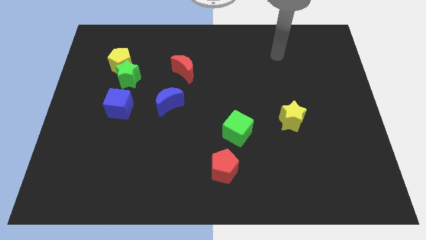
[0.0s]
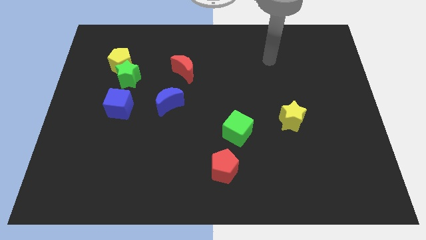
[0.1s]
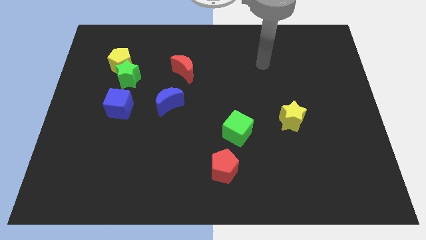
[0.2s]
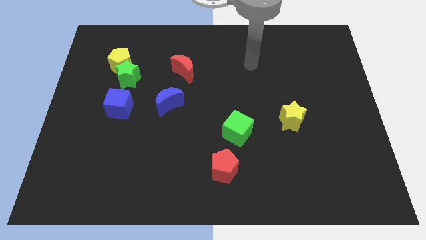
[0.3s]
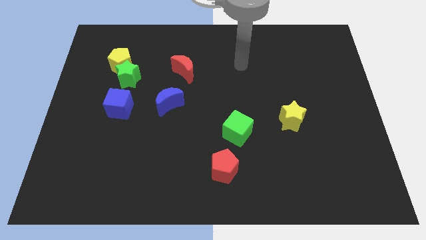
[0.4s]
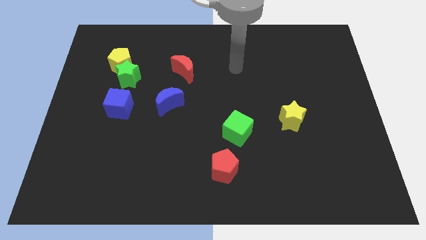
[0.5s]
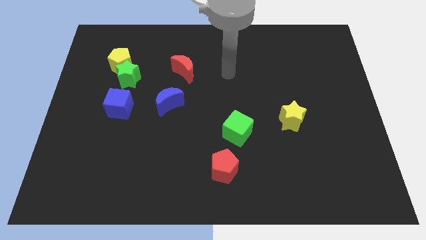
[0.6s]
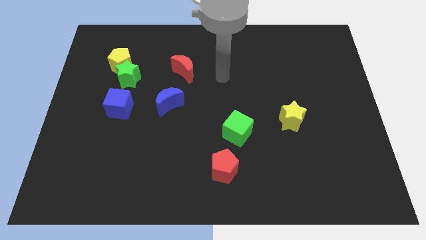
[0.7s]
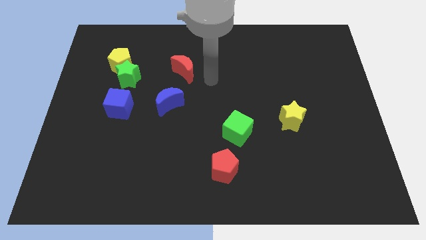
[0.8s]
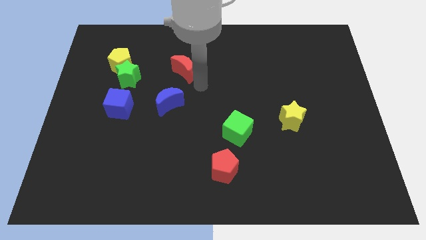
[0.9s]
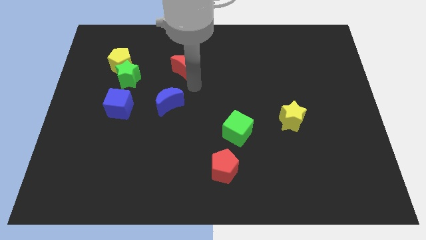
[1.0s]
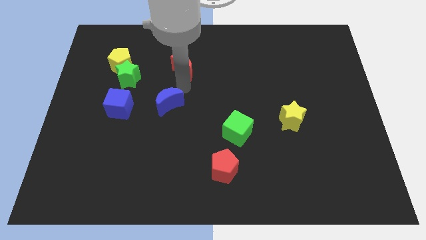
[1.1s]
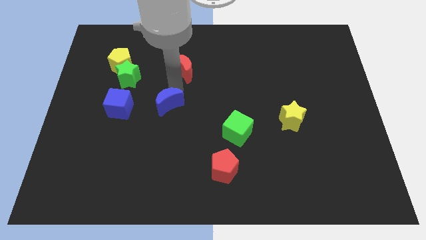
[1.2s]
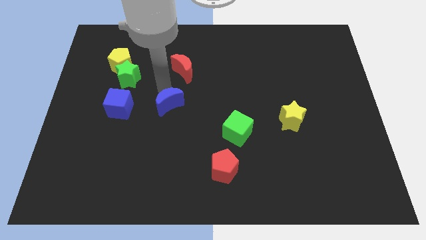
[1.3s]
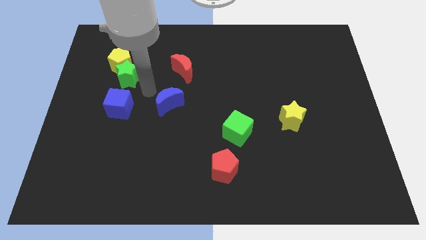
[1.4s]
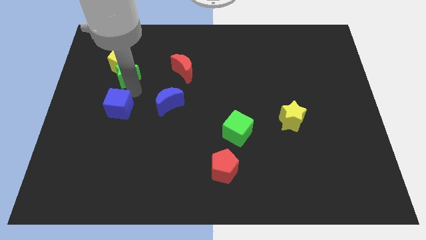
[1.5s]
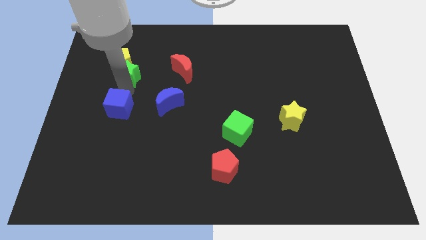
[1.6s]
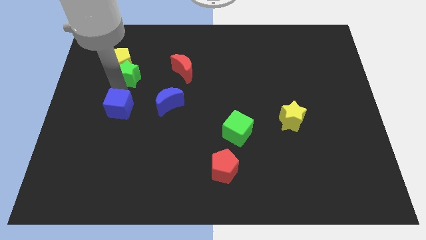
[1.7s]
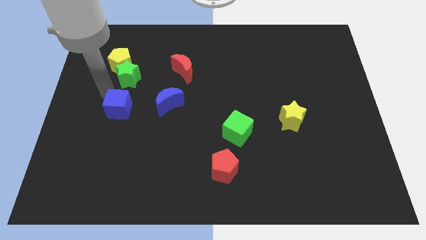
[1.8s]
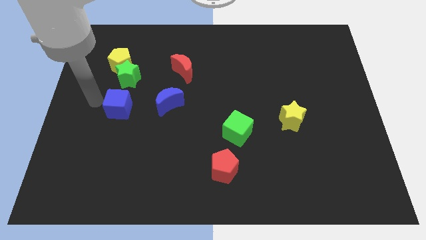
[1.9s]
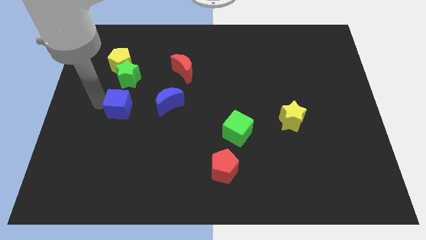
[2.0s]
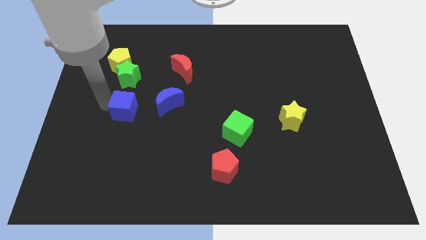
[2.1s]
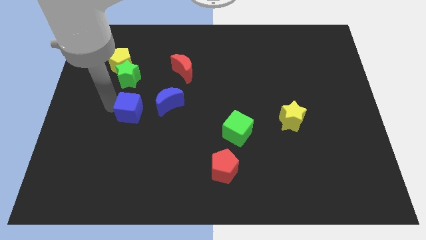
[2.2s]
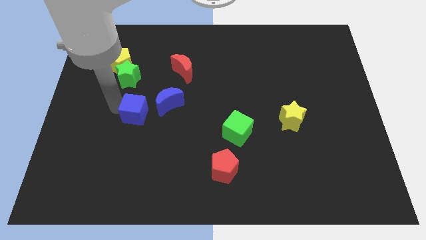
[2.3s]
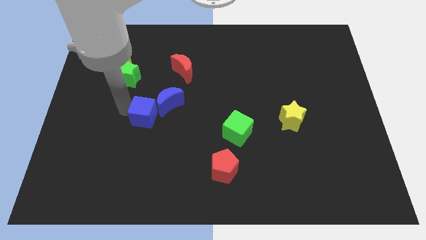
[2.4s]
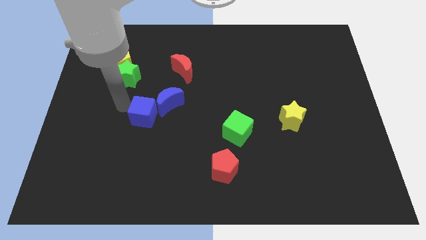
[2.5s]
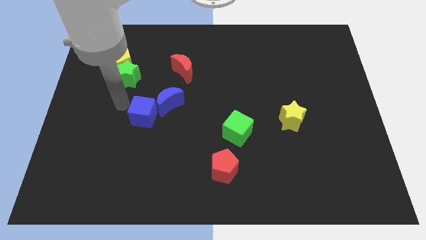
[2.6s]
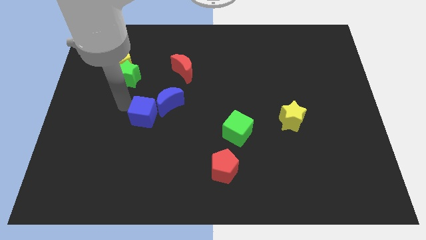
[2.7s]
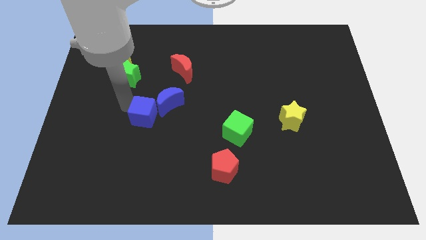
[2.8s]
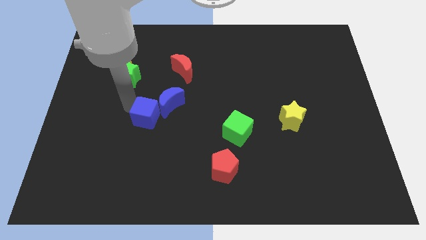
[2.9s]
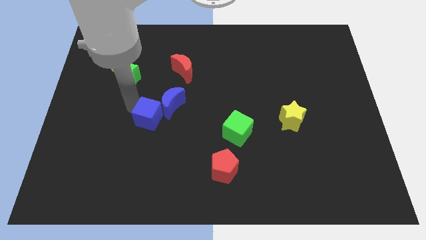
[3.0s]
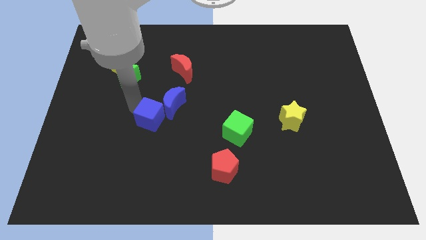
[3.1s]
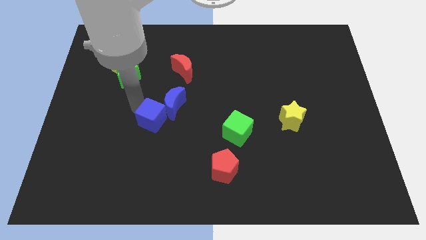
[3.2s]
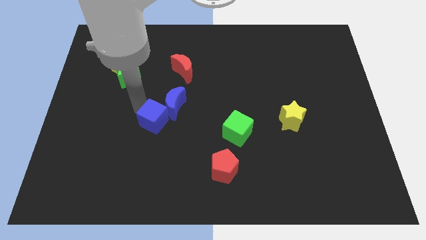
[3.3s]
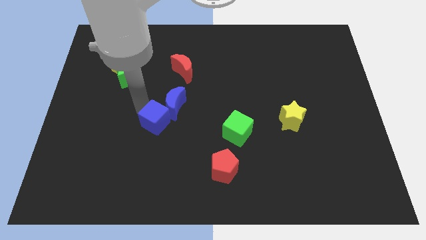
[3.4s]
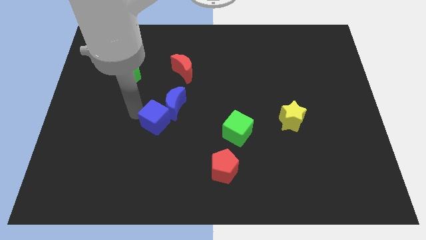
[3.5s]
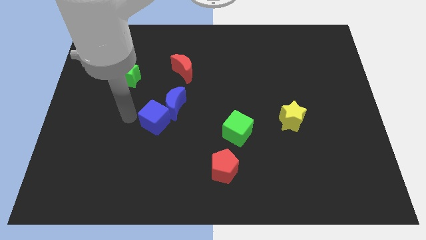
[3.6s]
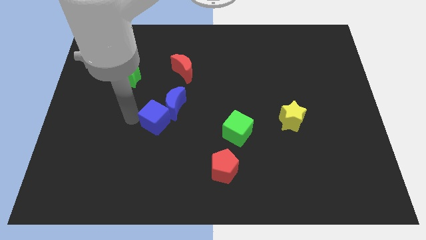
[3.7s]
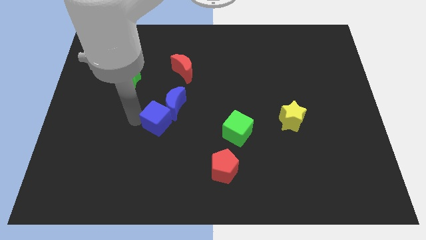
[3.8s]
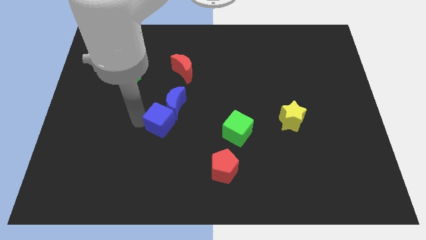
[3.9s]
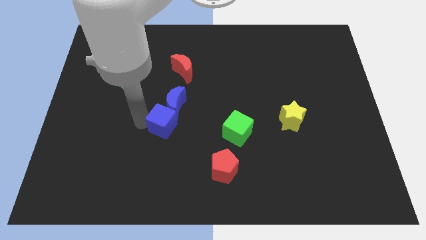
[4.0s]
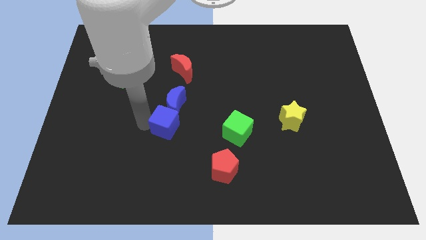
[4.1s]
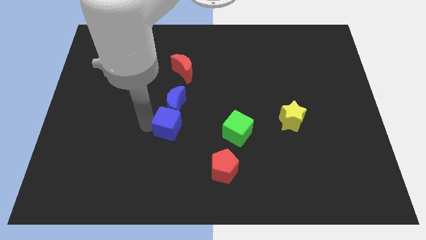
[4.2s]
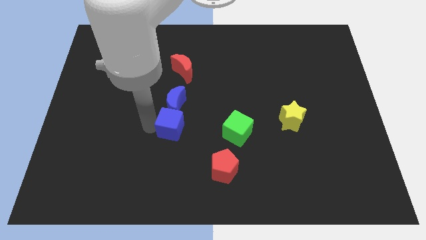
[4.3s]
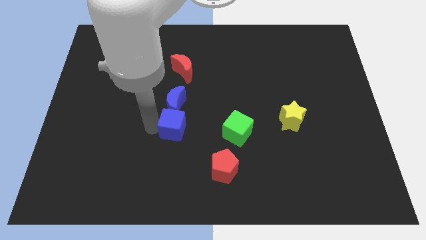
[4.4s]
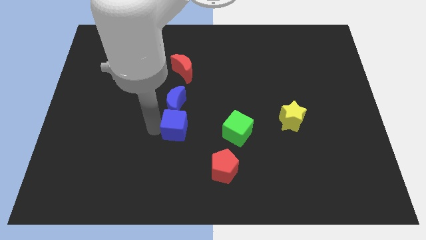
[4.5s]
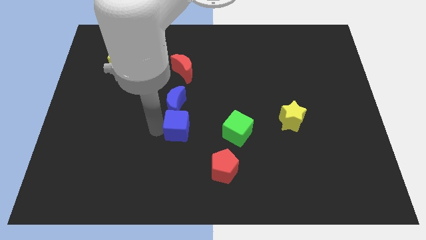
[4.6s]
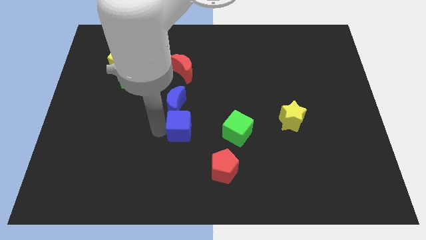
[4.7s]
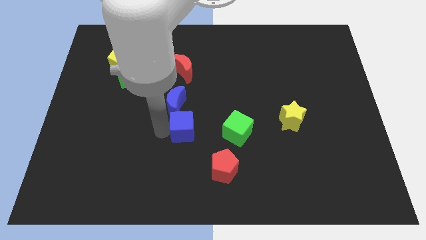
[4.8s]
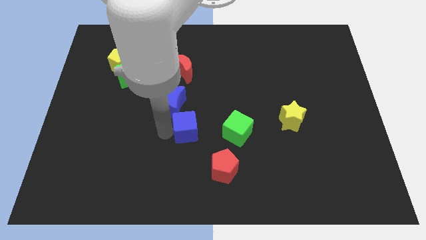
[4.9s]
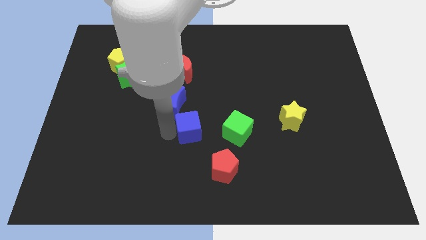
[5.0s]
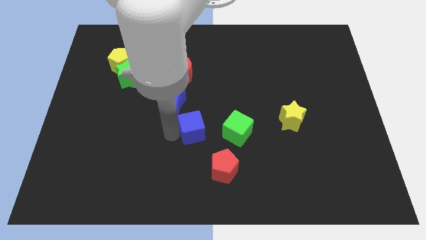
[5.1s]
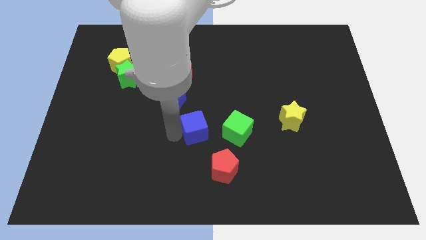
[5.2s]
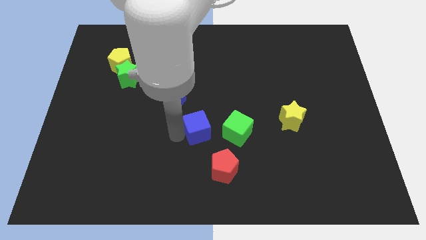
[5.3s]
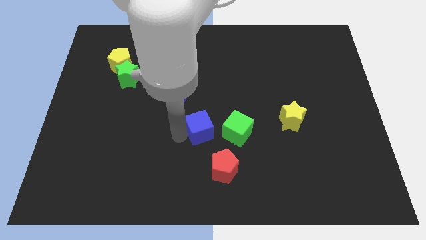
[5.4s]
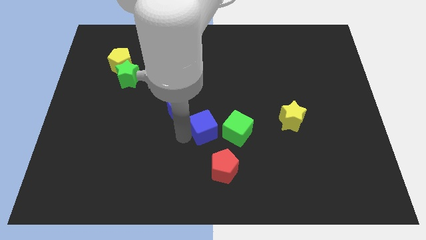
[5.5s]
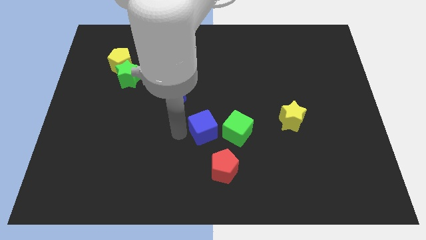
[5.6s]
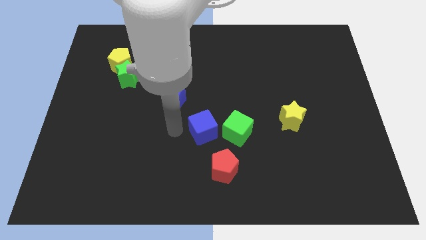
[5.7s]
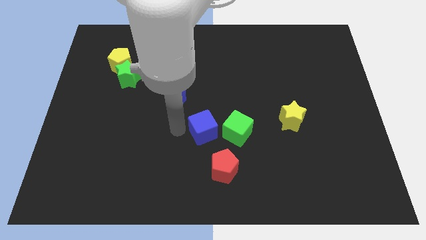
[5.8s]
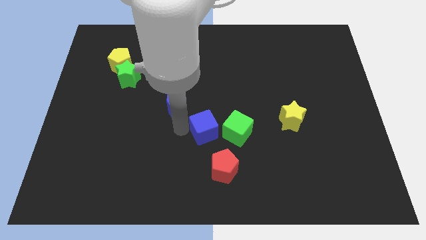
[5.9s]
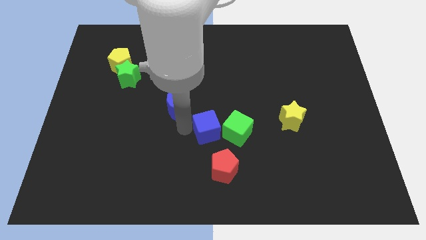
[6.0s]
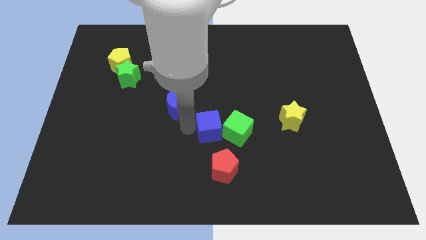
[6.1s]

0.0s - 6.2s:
slide the blue cube next to the green cube

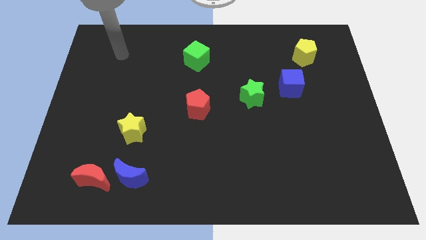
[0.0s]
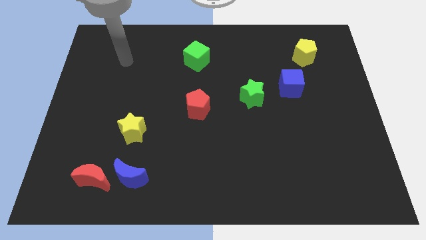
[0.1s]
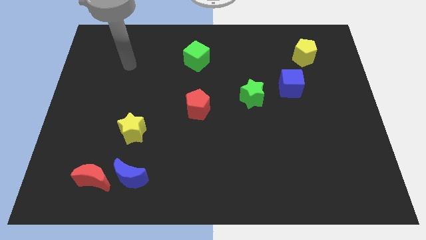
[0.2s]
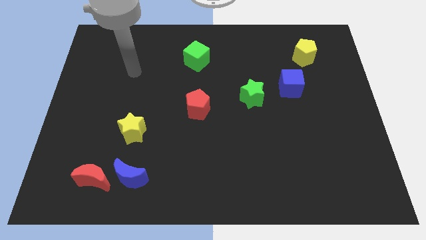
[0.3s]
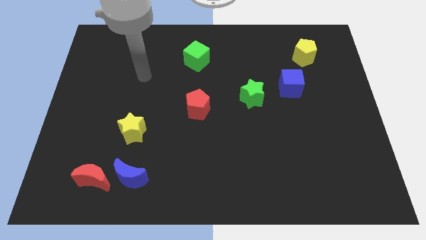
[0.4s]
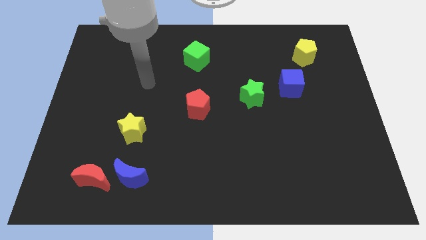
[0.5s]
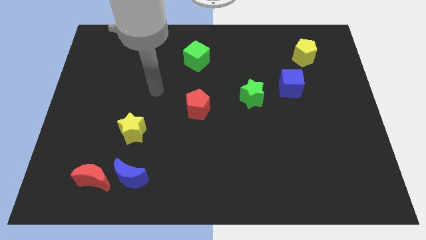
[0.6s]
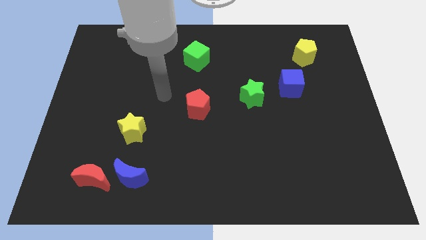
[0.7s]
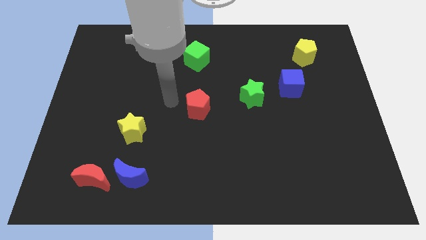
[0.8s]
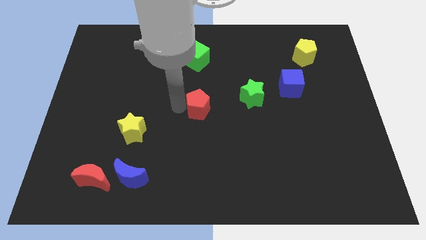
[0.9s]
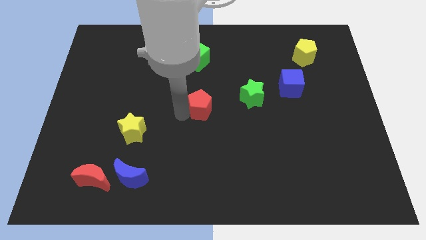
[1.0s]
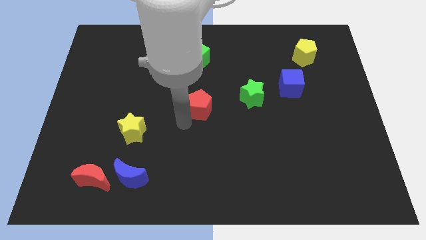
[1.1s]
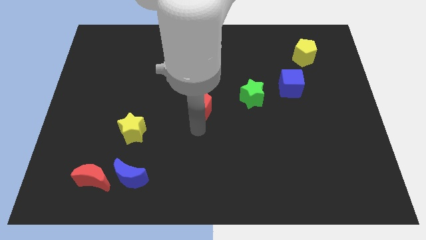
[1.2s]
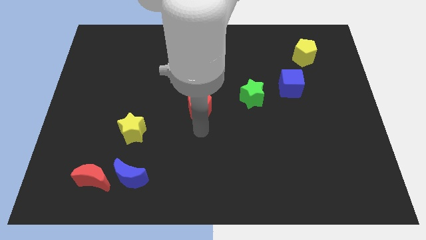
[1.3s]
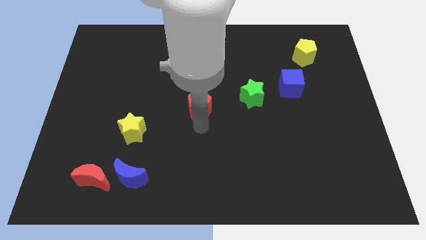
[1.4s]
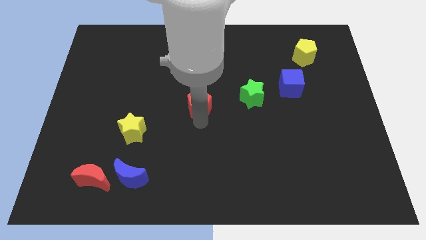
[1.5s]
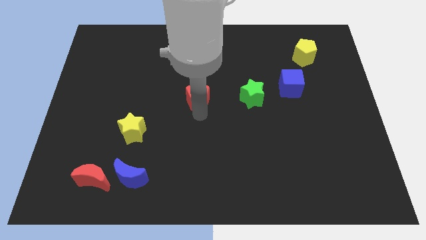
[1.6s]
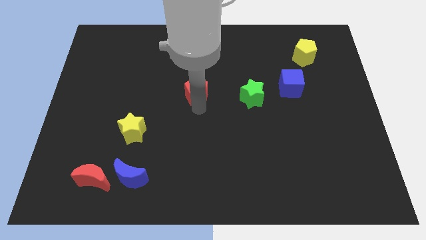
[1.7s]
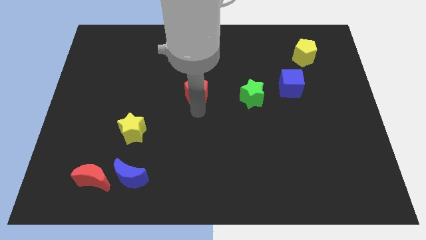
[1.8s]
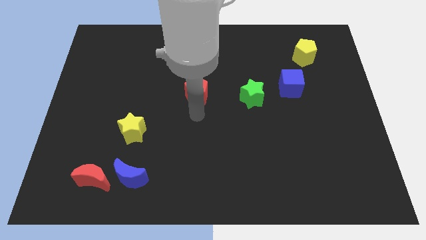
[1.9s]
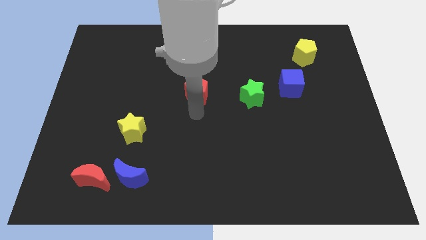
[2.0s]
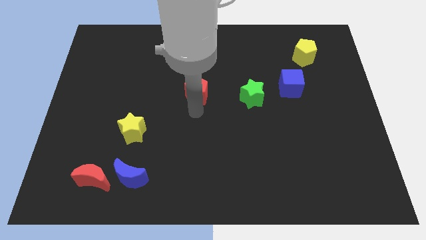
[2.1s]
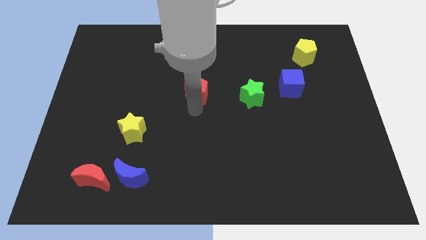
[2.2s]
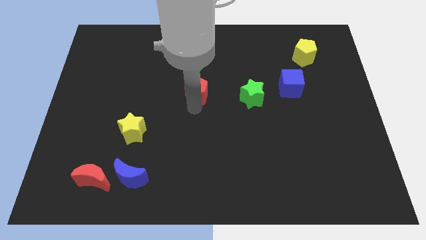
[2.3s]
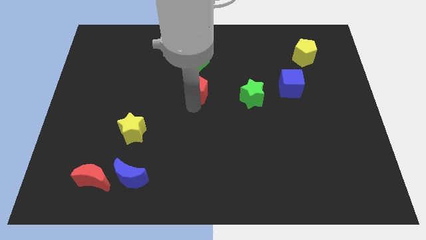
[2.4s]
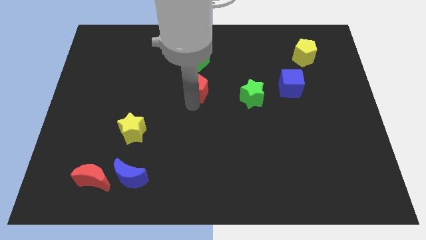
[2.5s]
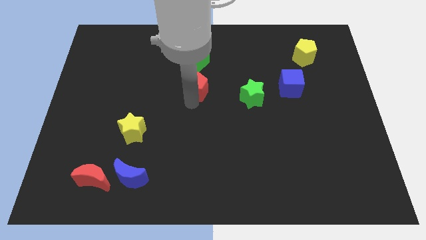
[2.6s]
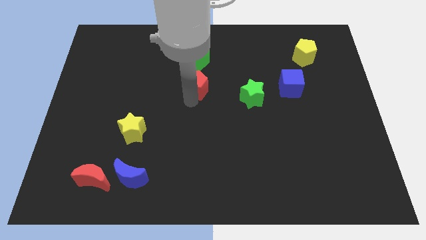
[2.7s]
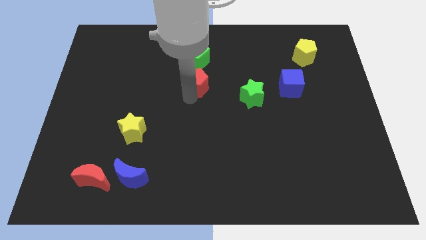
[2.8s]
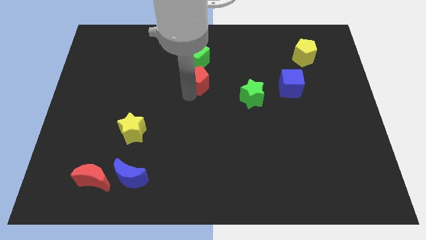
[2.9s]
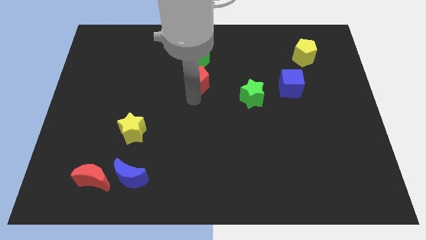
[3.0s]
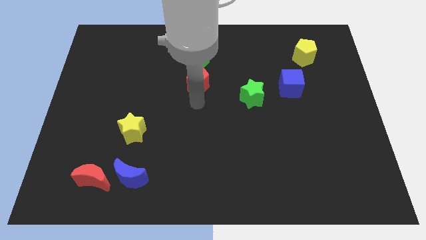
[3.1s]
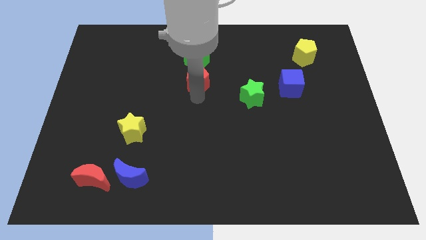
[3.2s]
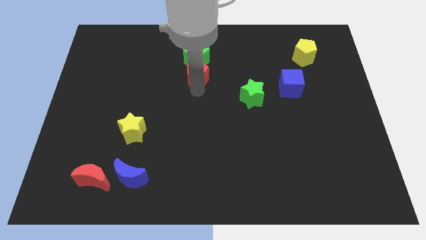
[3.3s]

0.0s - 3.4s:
push the red pentagon close to the green cube
